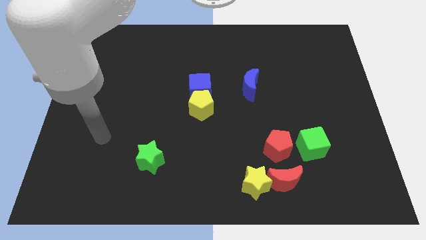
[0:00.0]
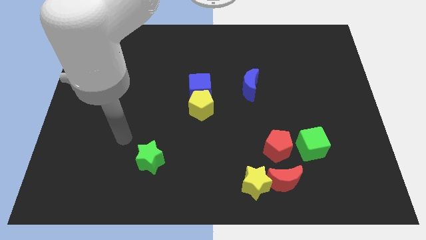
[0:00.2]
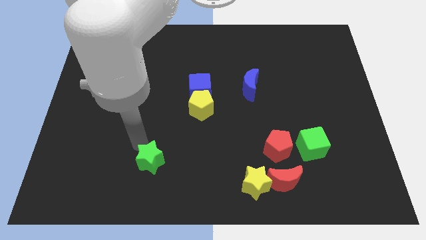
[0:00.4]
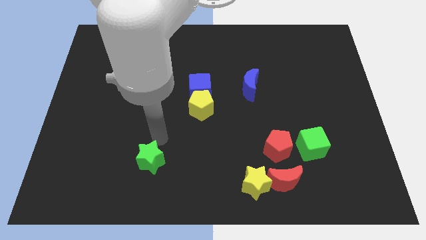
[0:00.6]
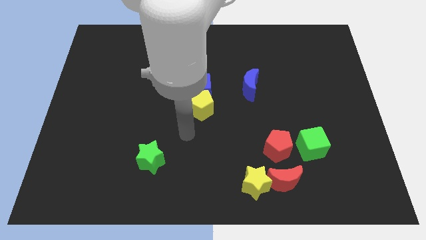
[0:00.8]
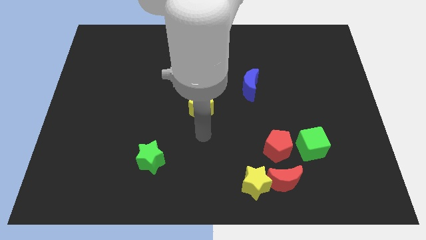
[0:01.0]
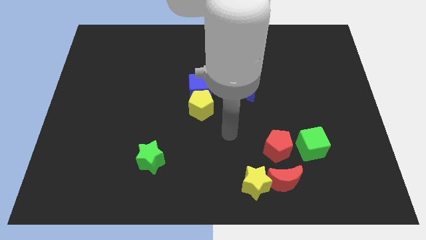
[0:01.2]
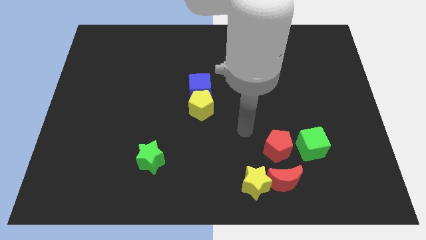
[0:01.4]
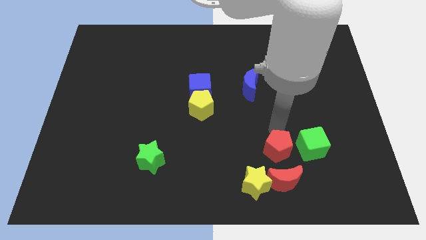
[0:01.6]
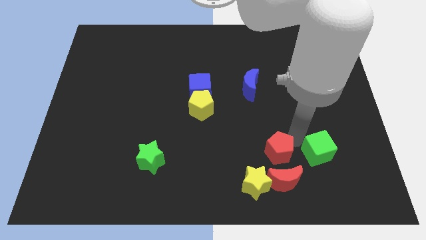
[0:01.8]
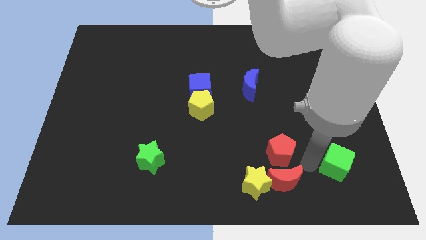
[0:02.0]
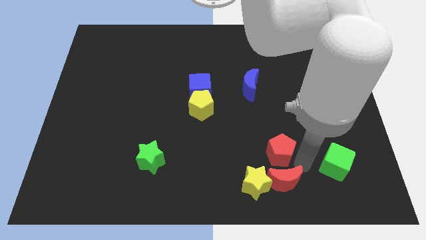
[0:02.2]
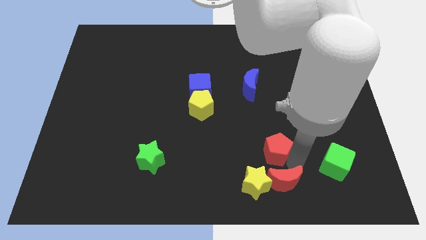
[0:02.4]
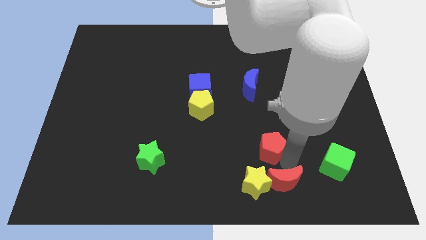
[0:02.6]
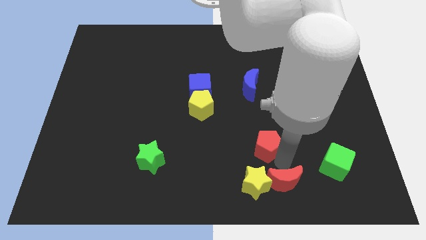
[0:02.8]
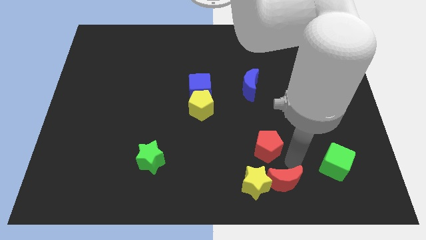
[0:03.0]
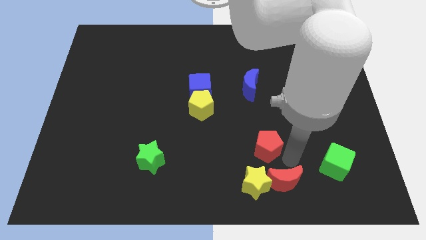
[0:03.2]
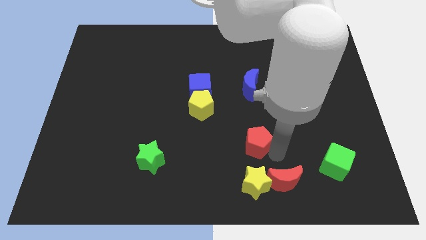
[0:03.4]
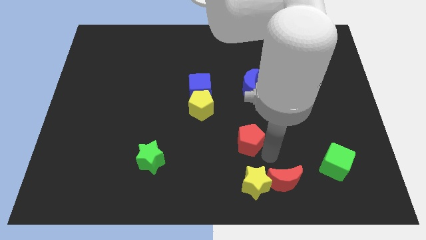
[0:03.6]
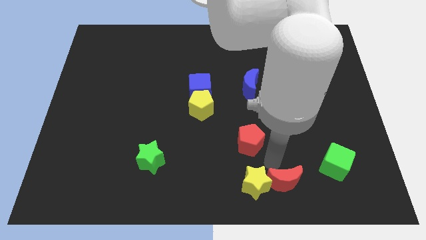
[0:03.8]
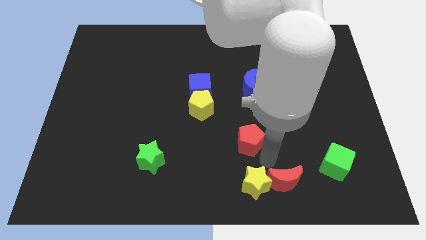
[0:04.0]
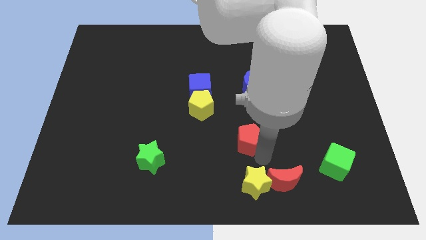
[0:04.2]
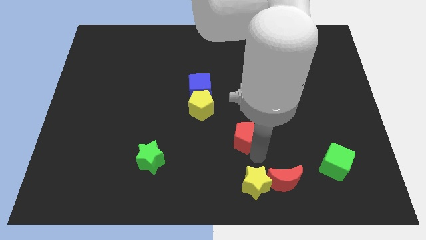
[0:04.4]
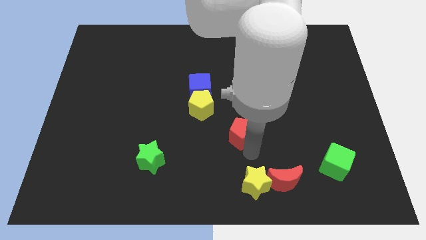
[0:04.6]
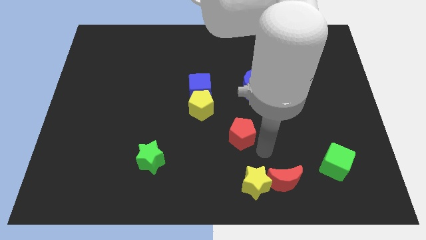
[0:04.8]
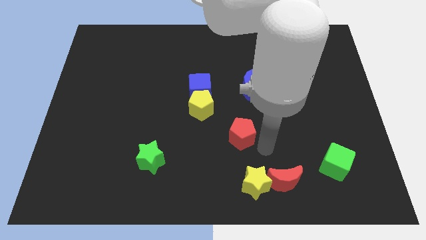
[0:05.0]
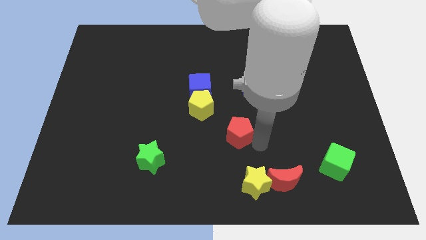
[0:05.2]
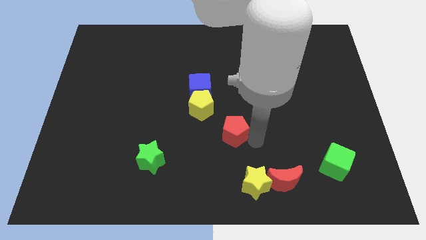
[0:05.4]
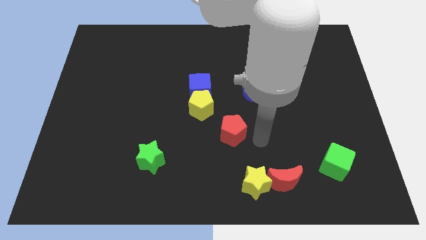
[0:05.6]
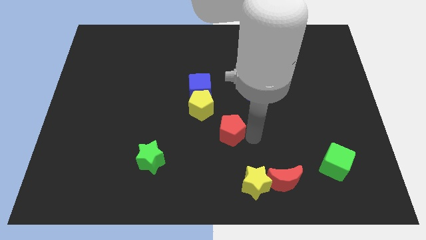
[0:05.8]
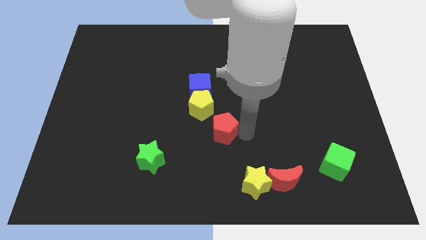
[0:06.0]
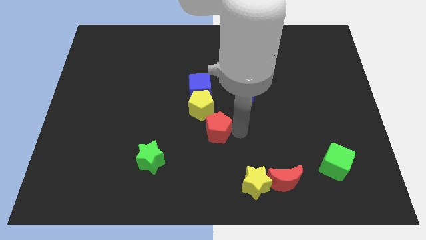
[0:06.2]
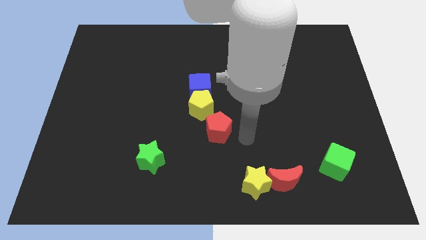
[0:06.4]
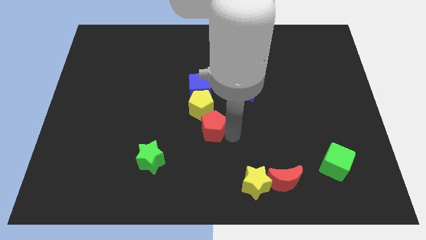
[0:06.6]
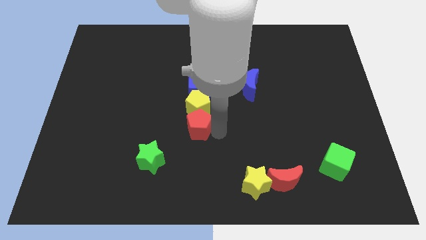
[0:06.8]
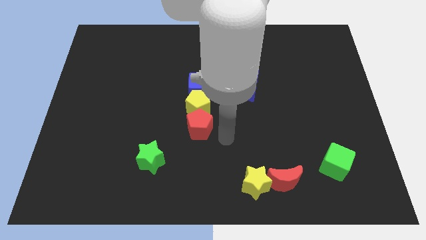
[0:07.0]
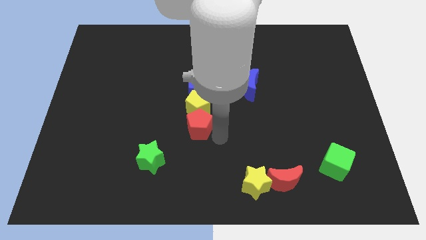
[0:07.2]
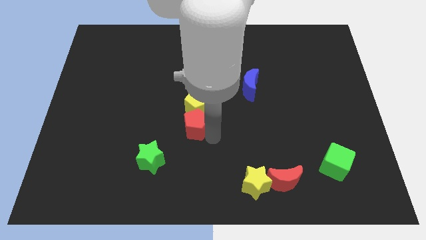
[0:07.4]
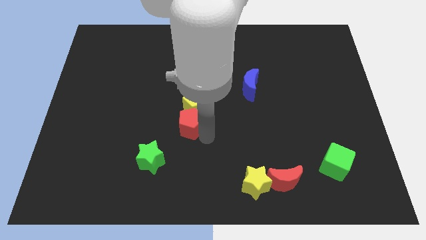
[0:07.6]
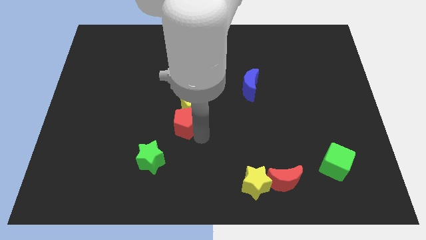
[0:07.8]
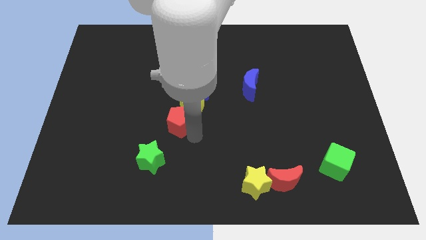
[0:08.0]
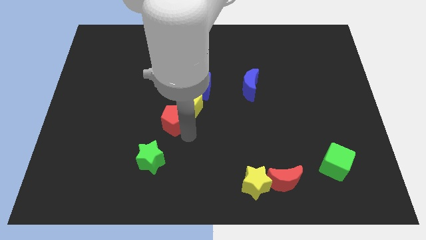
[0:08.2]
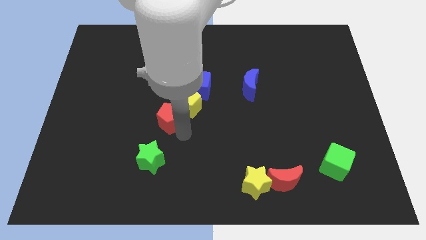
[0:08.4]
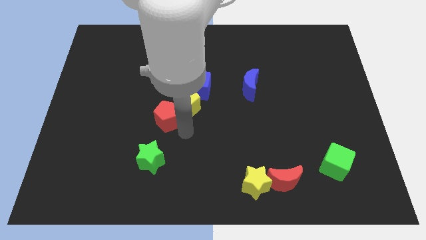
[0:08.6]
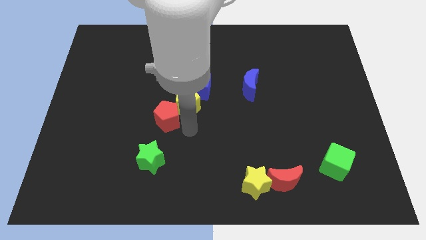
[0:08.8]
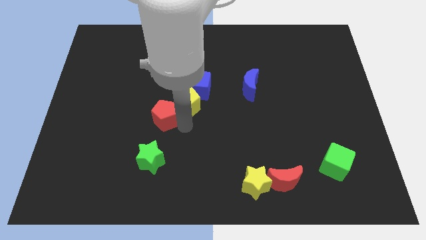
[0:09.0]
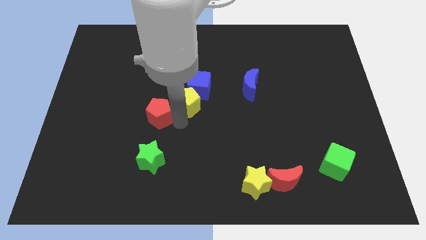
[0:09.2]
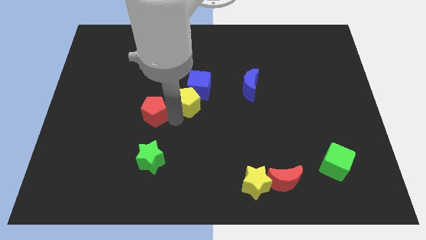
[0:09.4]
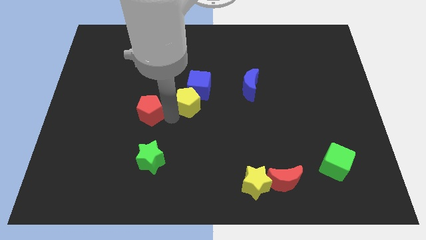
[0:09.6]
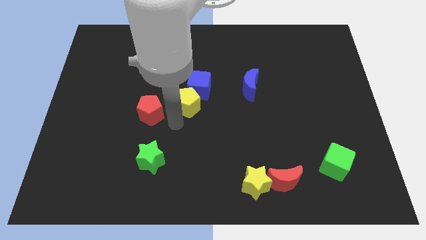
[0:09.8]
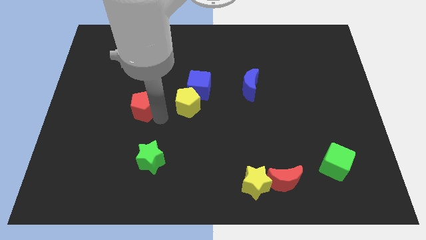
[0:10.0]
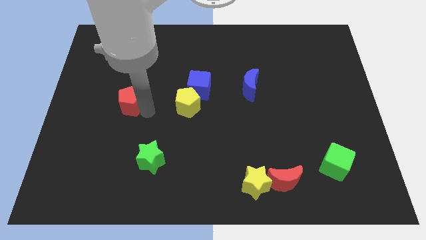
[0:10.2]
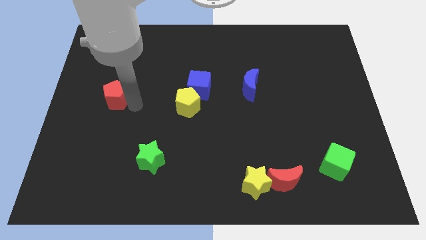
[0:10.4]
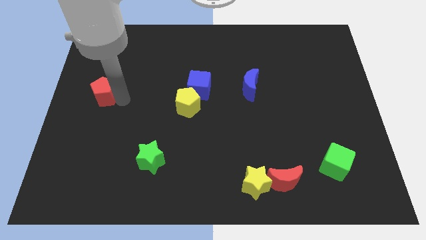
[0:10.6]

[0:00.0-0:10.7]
push the red pentagon to the left side

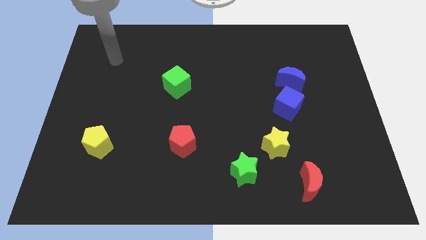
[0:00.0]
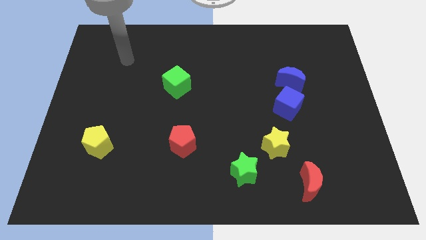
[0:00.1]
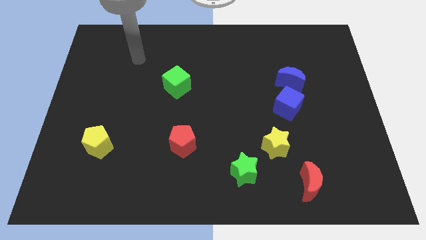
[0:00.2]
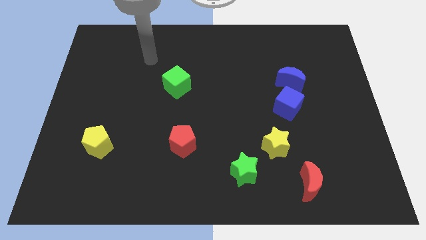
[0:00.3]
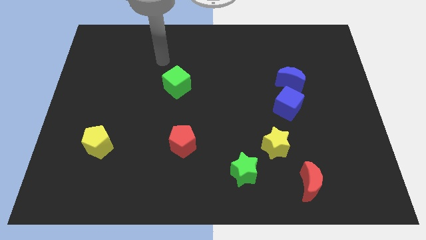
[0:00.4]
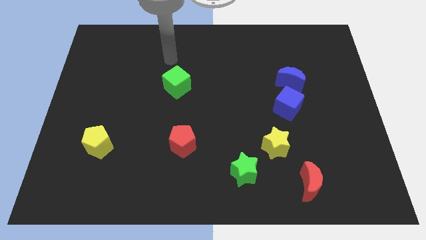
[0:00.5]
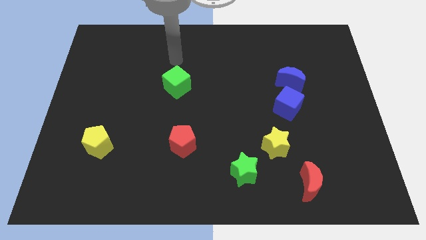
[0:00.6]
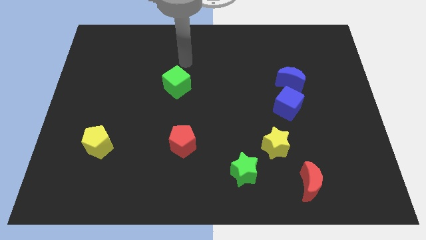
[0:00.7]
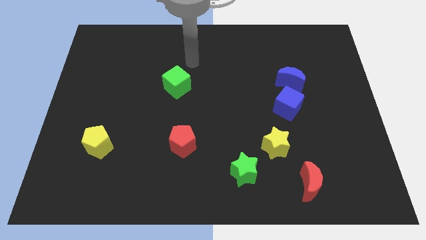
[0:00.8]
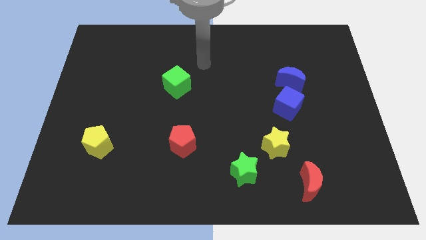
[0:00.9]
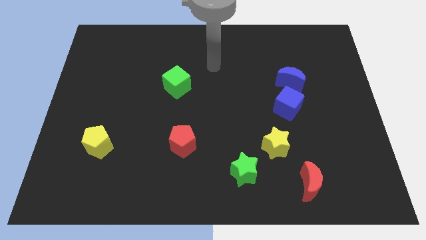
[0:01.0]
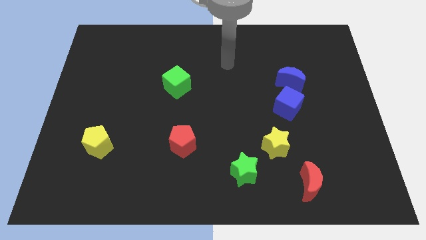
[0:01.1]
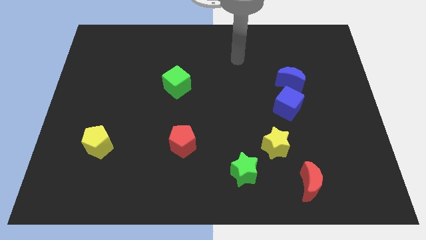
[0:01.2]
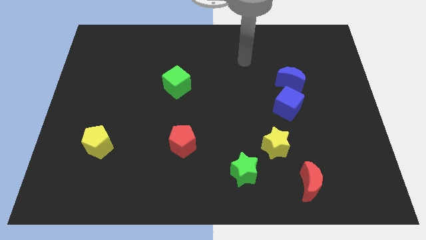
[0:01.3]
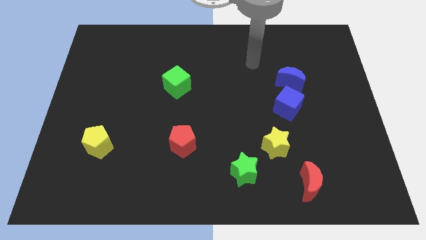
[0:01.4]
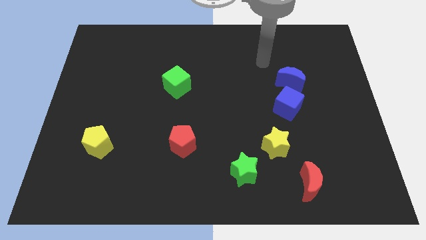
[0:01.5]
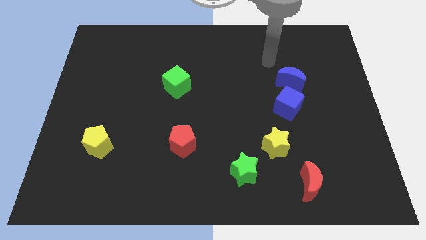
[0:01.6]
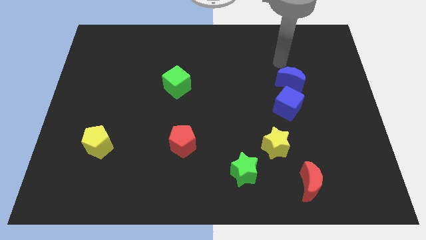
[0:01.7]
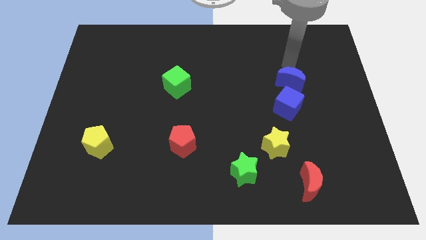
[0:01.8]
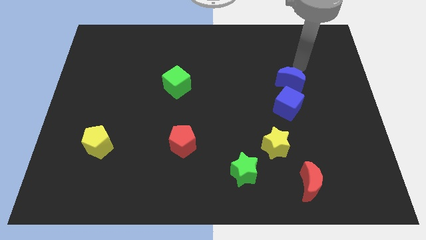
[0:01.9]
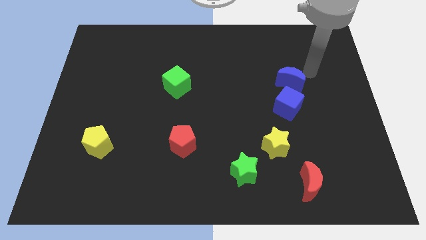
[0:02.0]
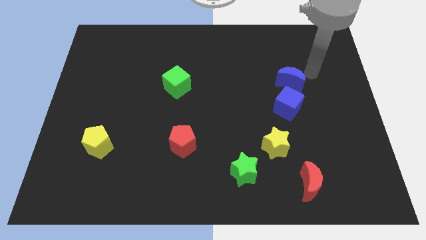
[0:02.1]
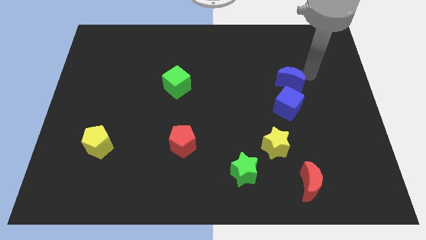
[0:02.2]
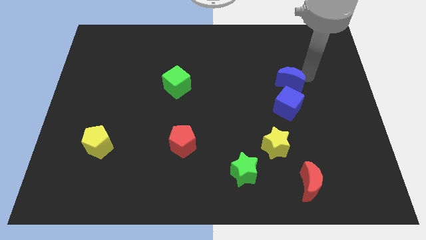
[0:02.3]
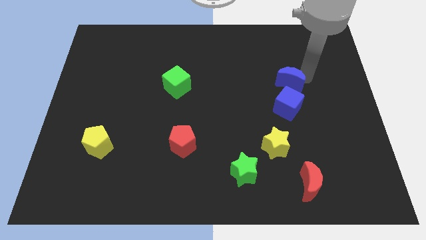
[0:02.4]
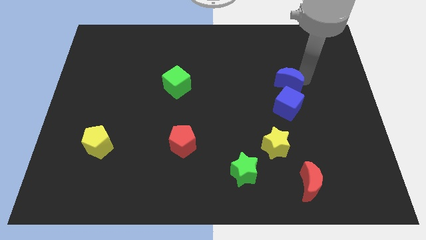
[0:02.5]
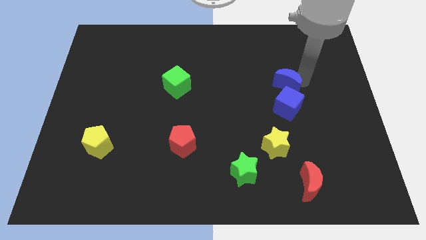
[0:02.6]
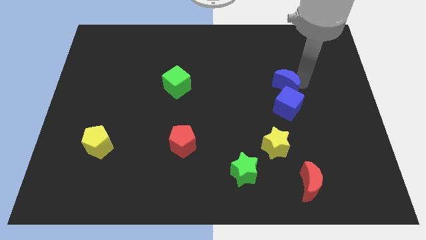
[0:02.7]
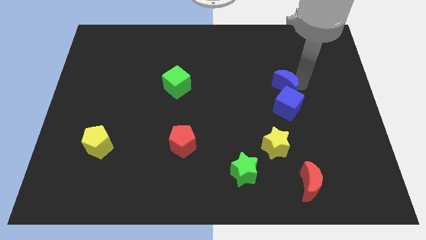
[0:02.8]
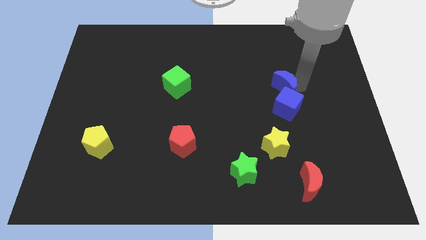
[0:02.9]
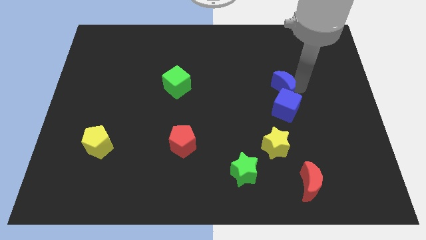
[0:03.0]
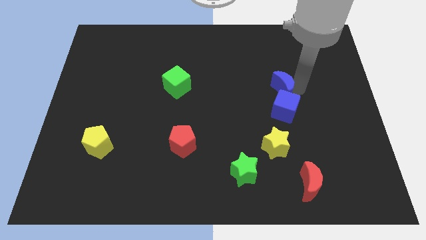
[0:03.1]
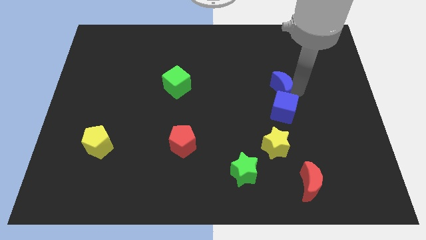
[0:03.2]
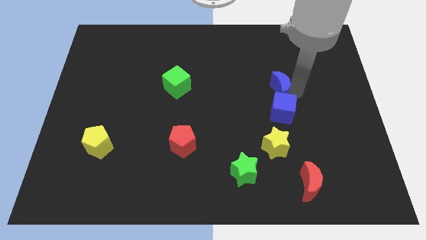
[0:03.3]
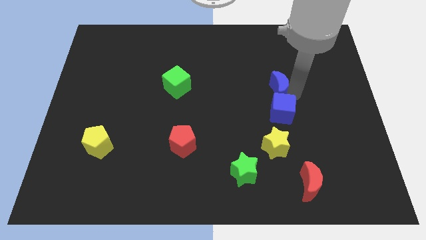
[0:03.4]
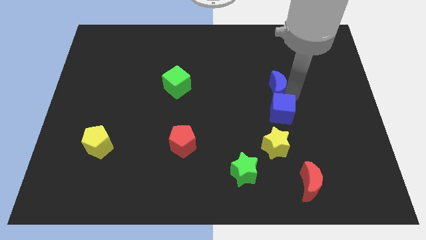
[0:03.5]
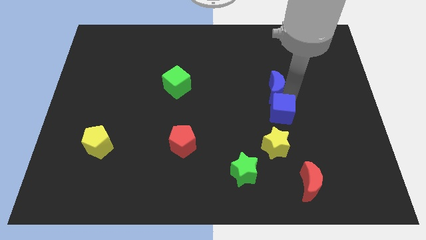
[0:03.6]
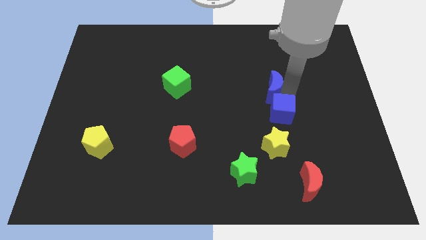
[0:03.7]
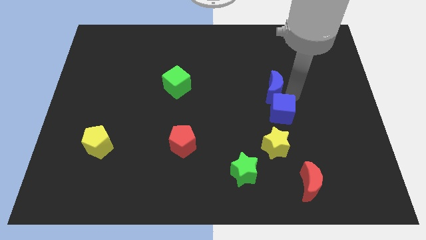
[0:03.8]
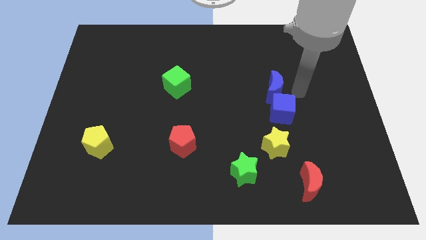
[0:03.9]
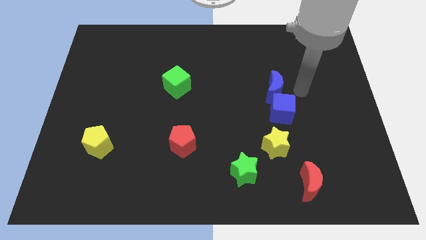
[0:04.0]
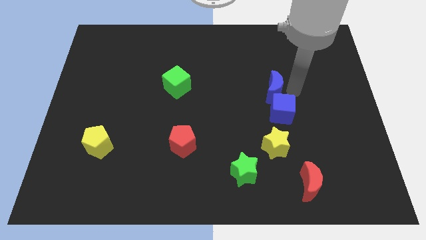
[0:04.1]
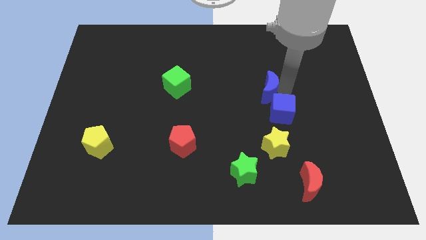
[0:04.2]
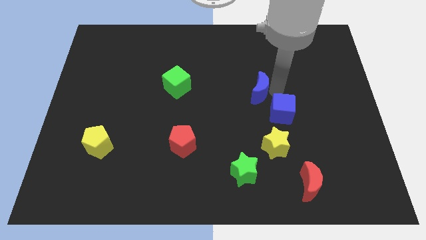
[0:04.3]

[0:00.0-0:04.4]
push the blue moon to the middle of the board
